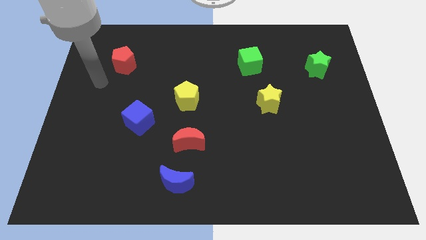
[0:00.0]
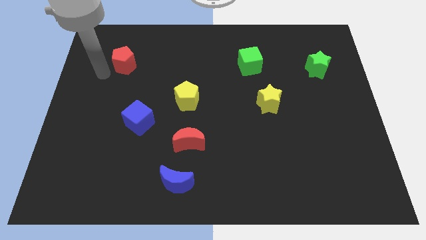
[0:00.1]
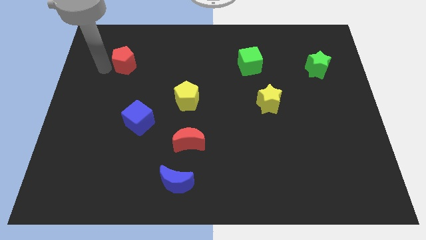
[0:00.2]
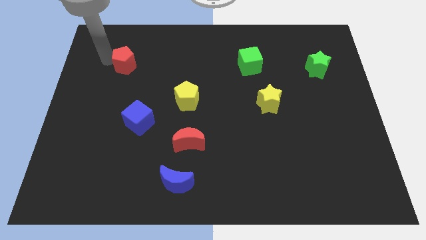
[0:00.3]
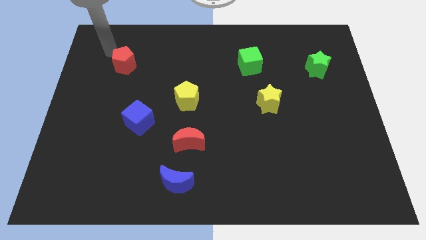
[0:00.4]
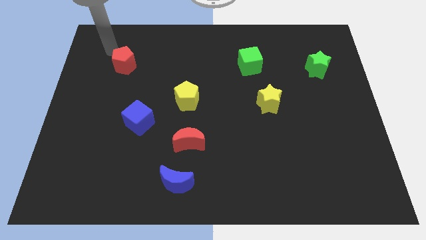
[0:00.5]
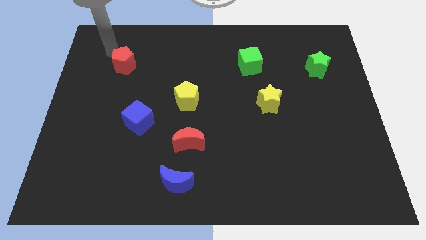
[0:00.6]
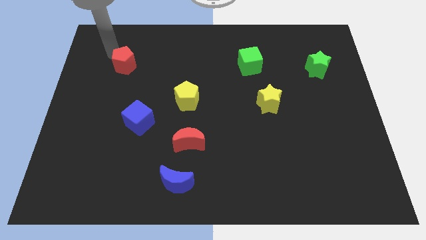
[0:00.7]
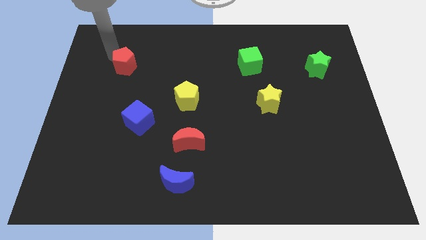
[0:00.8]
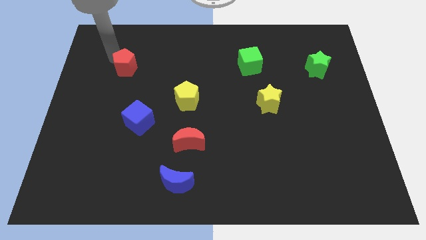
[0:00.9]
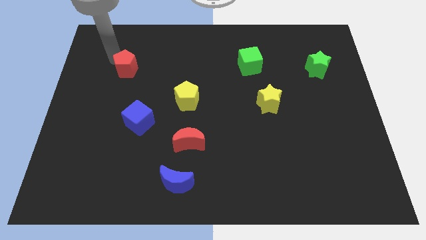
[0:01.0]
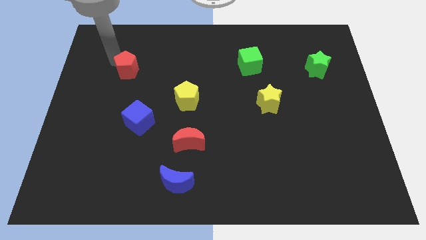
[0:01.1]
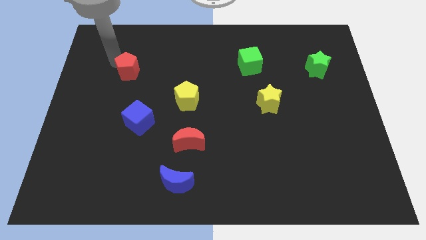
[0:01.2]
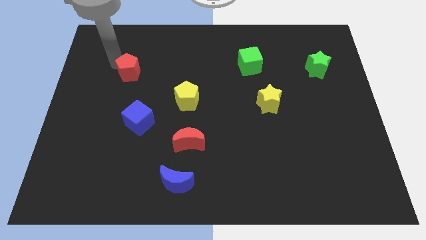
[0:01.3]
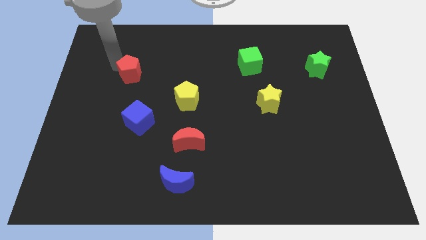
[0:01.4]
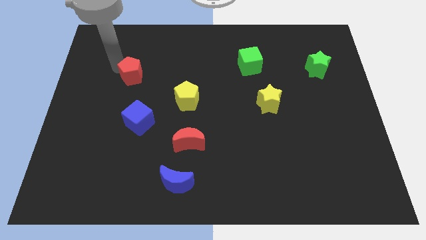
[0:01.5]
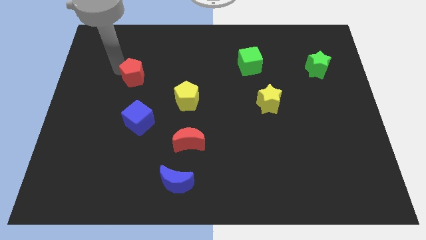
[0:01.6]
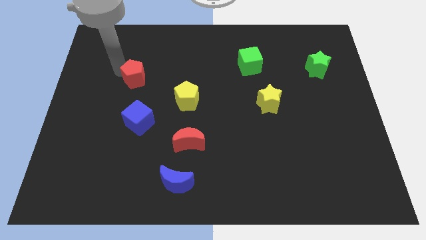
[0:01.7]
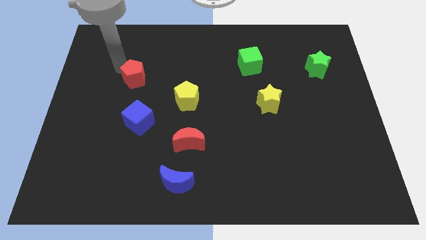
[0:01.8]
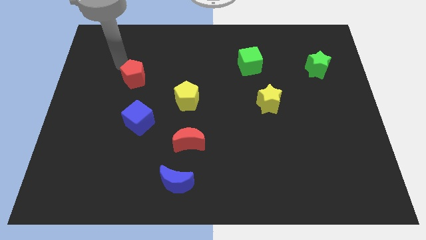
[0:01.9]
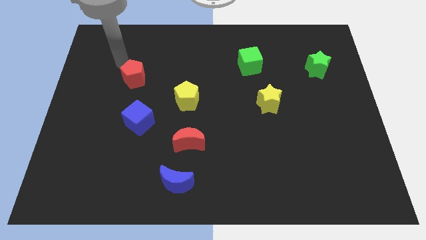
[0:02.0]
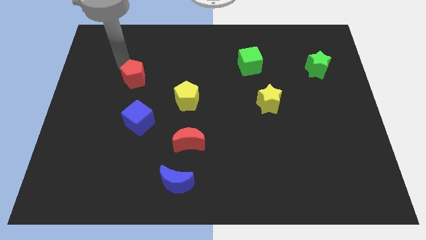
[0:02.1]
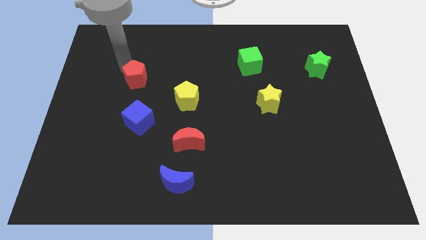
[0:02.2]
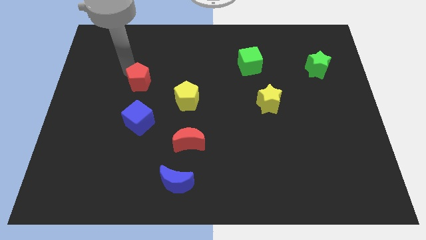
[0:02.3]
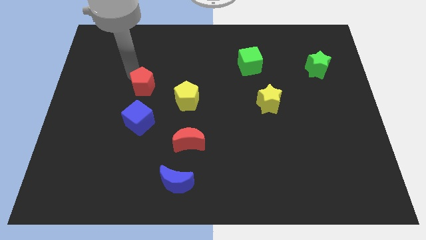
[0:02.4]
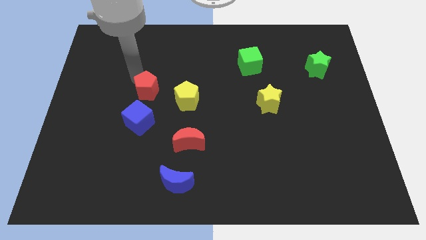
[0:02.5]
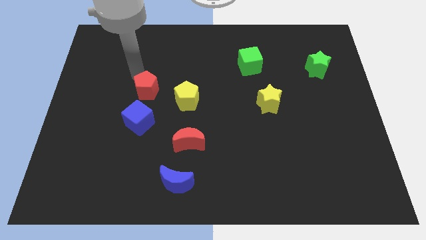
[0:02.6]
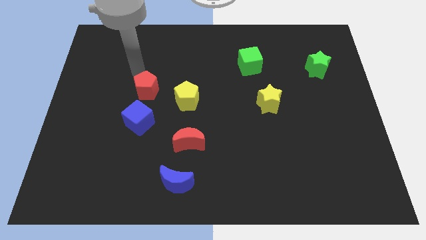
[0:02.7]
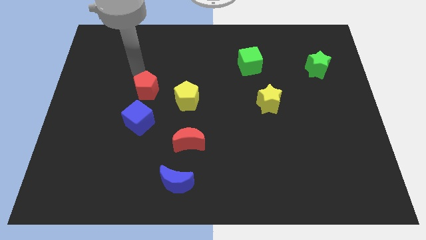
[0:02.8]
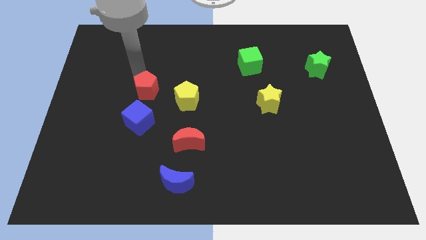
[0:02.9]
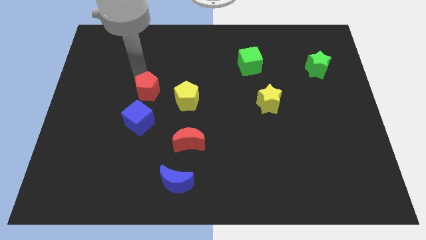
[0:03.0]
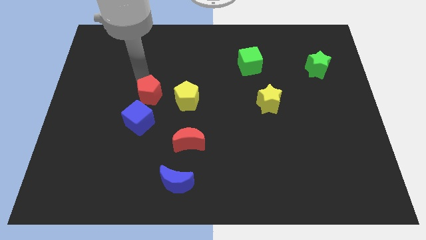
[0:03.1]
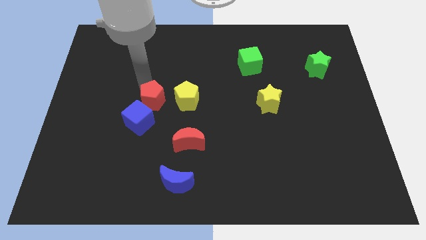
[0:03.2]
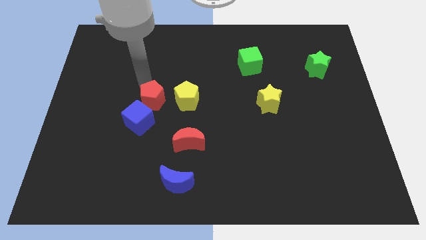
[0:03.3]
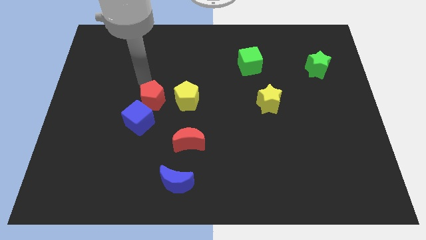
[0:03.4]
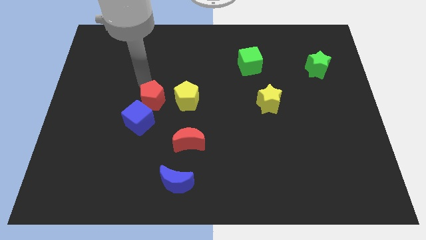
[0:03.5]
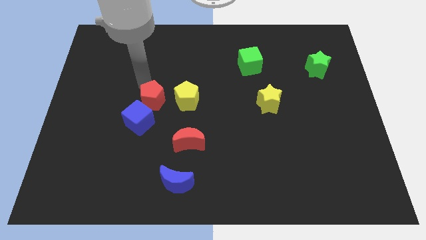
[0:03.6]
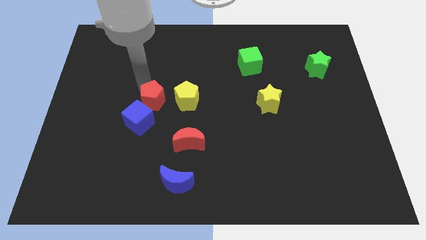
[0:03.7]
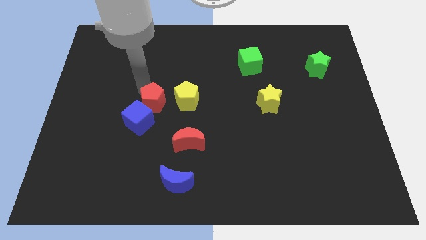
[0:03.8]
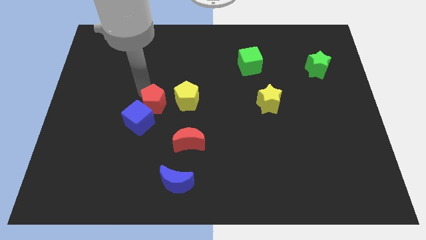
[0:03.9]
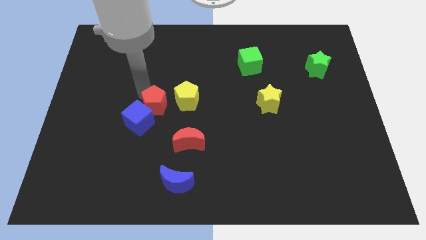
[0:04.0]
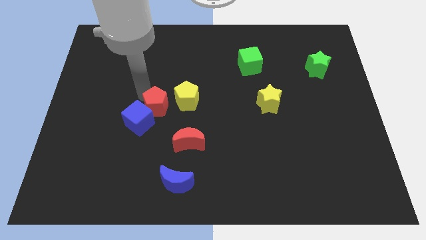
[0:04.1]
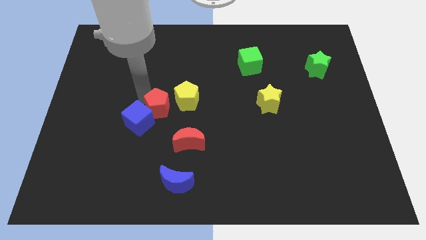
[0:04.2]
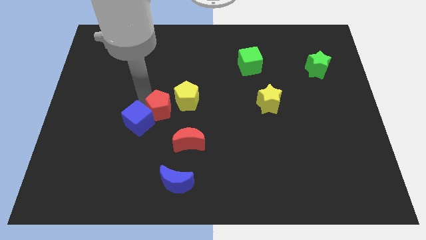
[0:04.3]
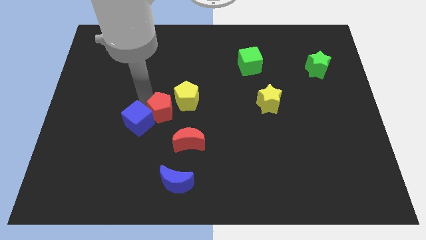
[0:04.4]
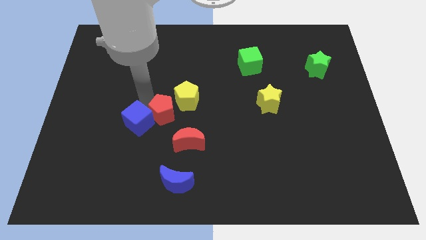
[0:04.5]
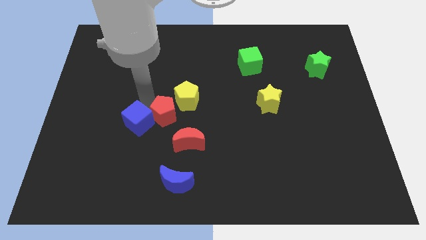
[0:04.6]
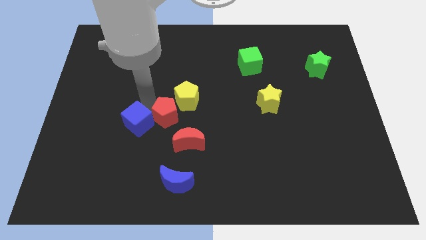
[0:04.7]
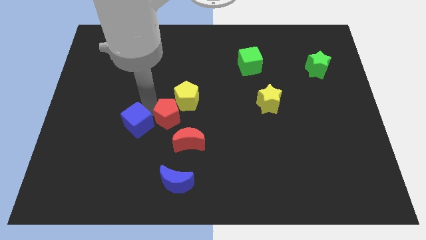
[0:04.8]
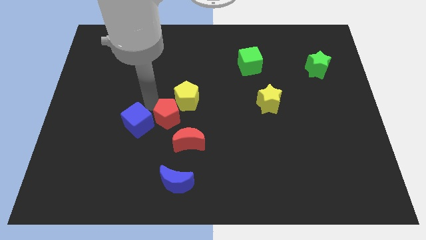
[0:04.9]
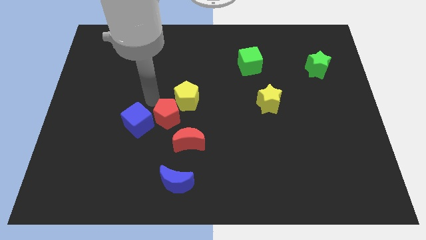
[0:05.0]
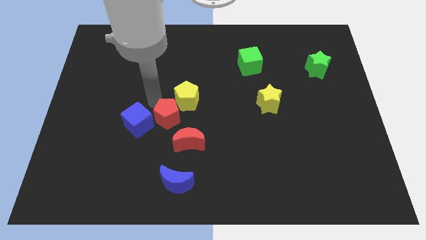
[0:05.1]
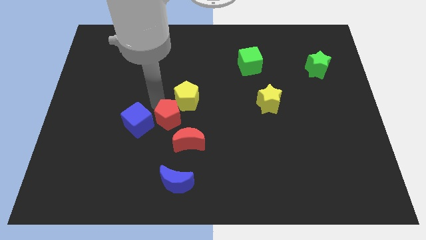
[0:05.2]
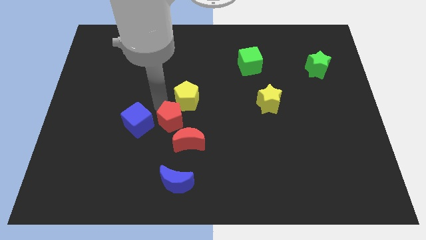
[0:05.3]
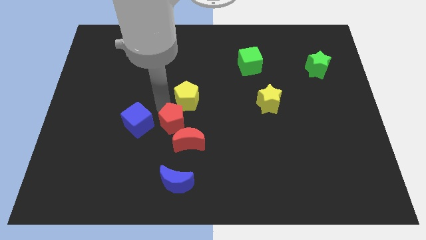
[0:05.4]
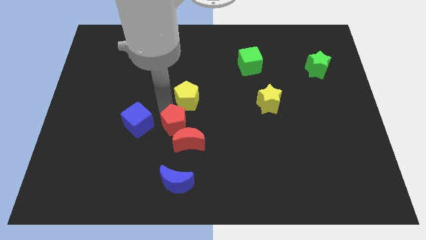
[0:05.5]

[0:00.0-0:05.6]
move the red pentagon towards the red moon

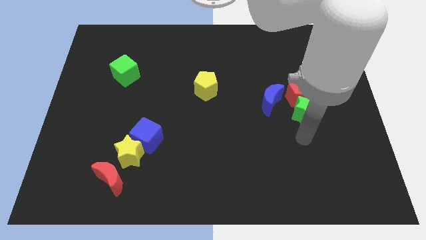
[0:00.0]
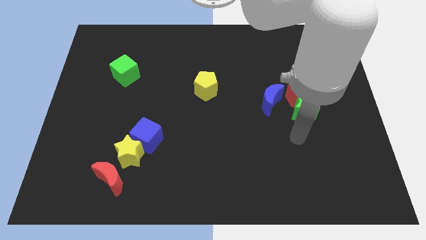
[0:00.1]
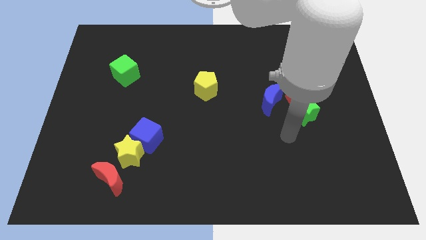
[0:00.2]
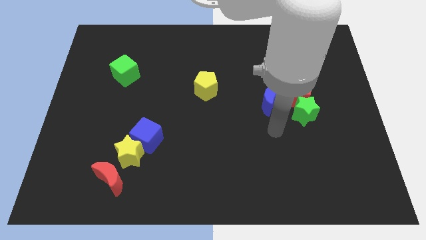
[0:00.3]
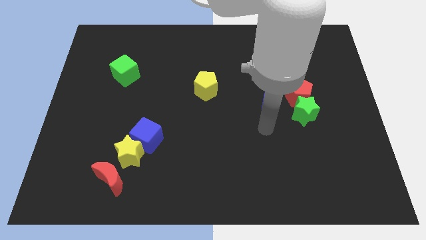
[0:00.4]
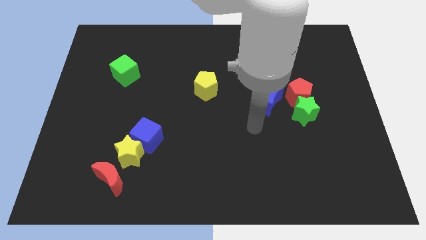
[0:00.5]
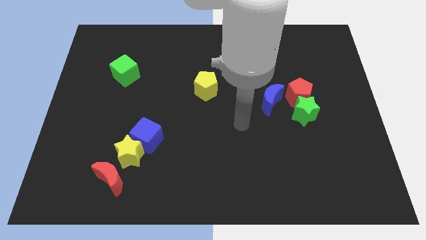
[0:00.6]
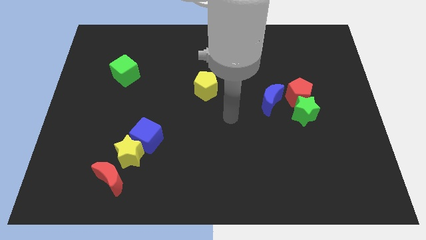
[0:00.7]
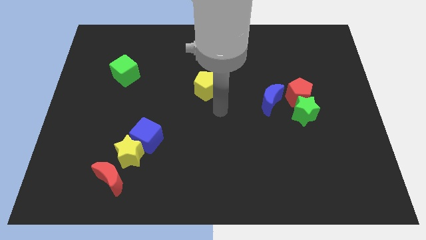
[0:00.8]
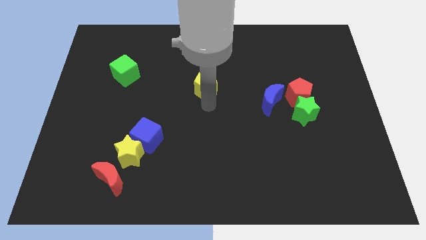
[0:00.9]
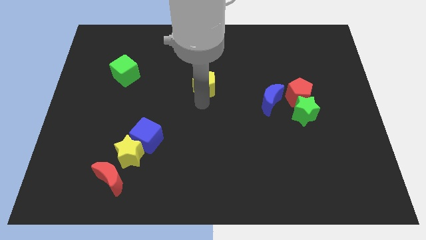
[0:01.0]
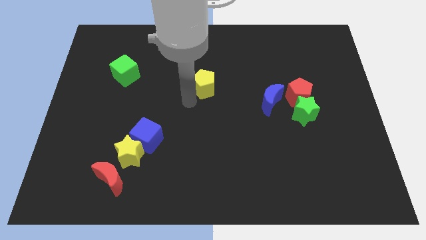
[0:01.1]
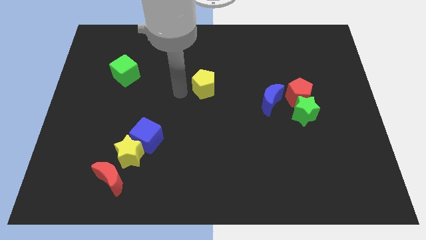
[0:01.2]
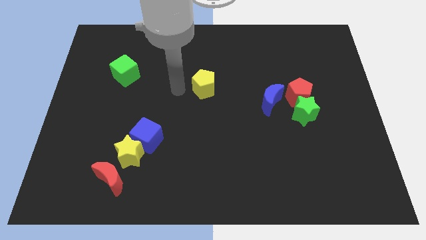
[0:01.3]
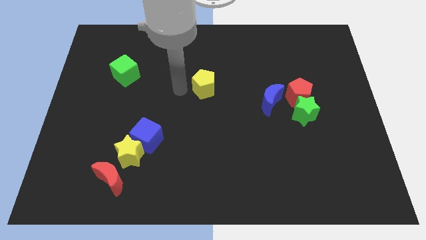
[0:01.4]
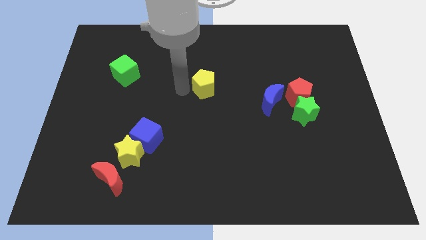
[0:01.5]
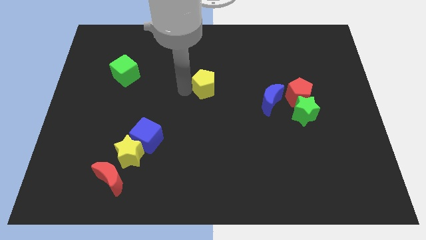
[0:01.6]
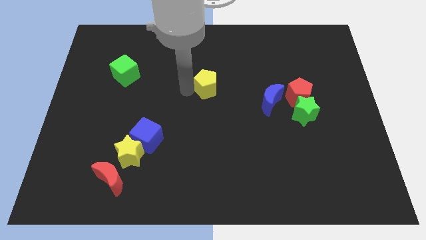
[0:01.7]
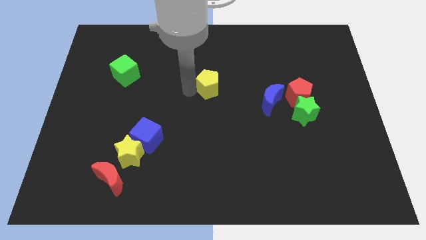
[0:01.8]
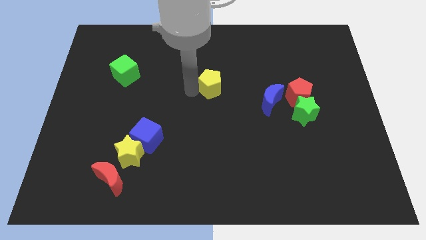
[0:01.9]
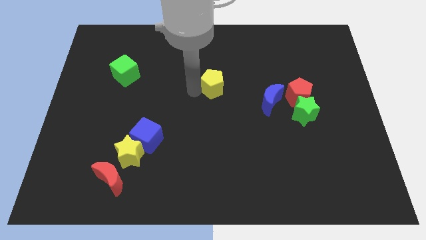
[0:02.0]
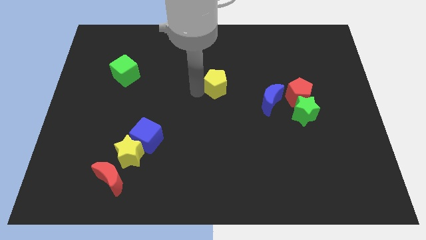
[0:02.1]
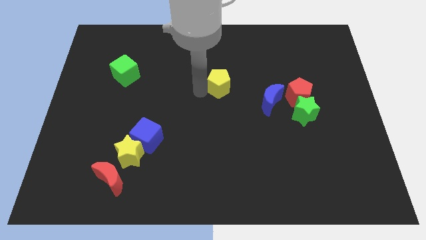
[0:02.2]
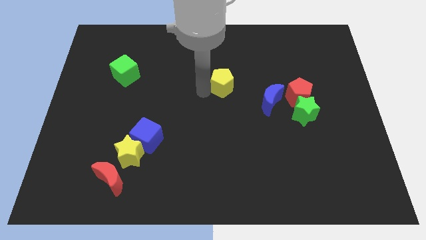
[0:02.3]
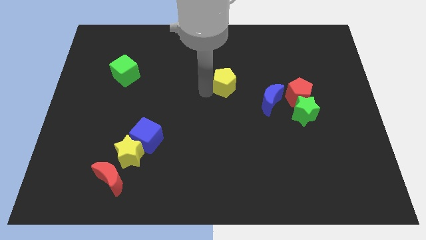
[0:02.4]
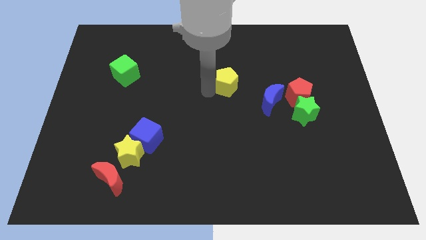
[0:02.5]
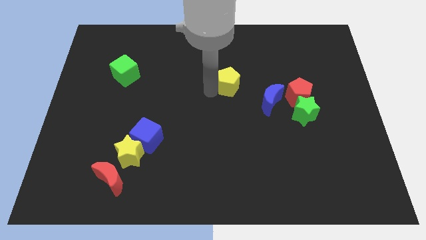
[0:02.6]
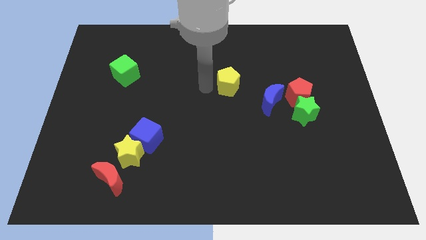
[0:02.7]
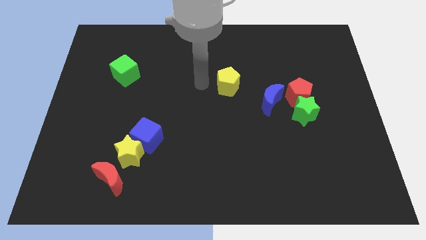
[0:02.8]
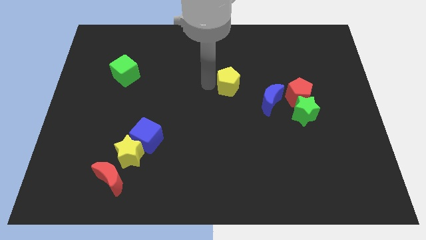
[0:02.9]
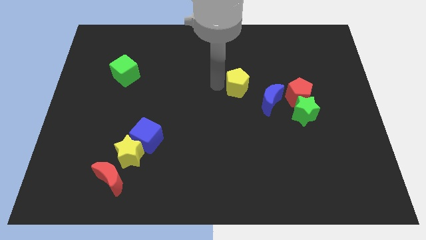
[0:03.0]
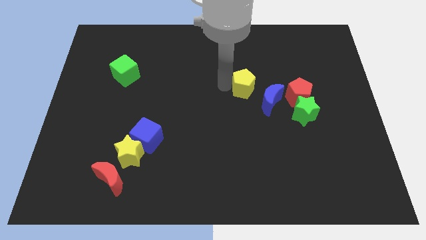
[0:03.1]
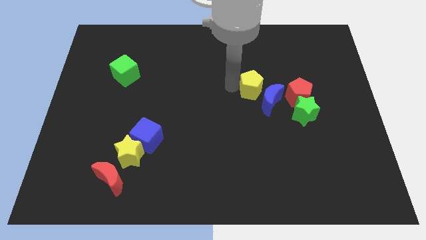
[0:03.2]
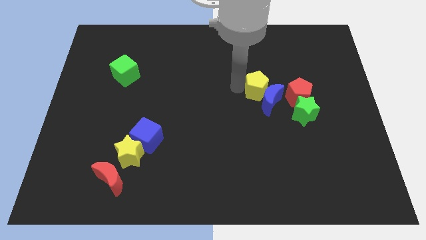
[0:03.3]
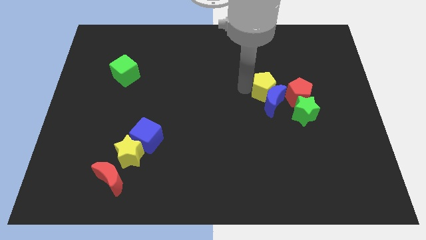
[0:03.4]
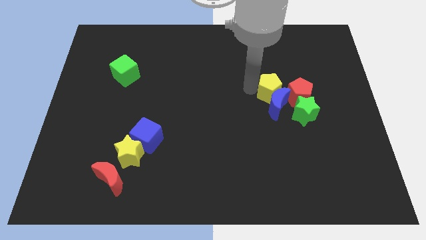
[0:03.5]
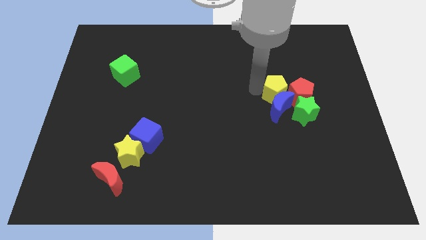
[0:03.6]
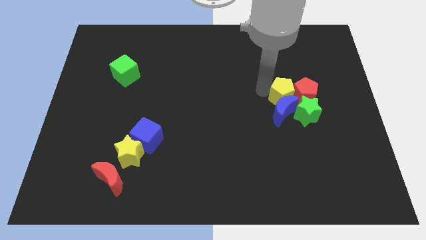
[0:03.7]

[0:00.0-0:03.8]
slide the yellow pentagon to the red pentagon
